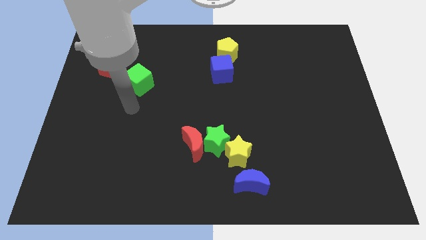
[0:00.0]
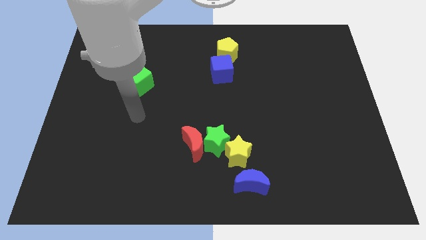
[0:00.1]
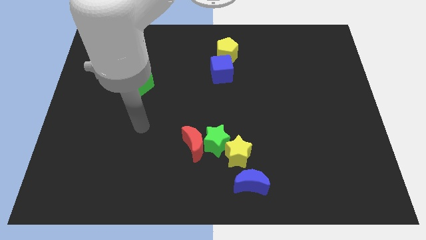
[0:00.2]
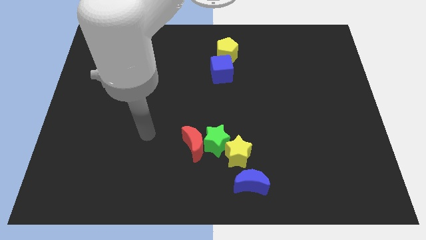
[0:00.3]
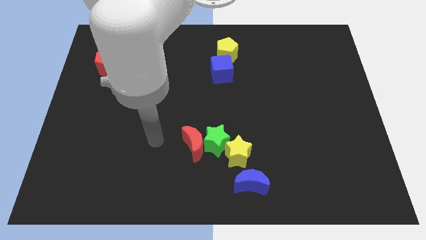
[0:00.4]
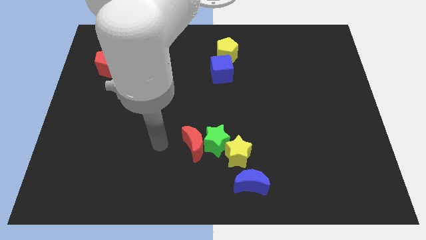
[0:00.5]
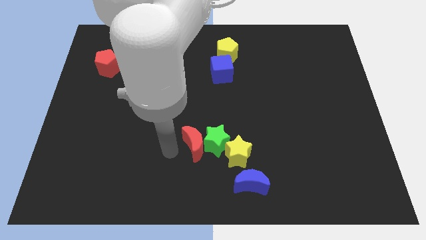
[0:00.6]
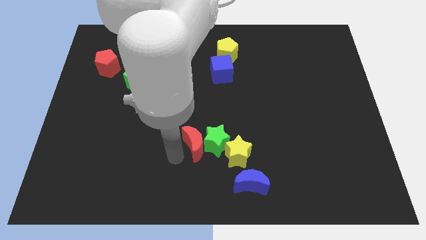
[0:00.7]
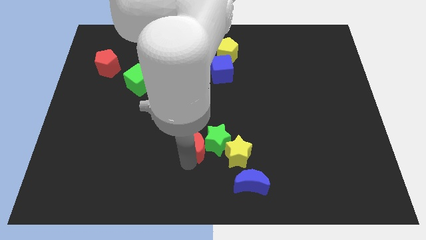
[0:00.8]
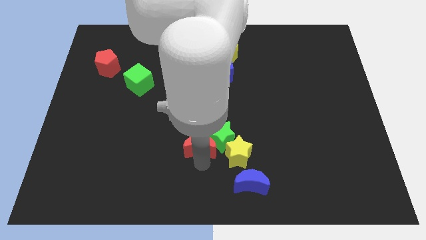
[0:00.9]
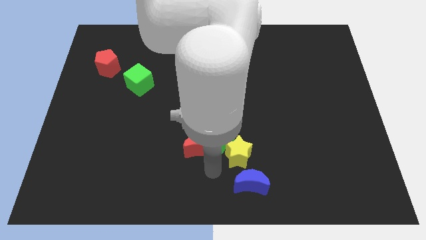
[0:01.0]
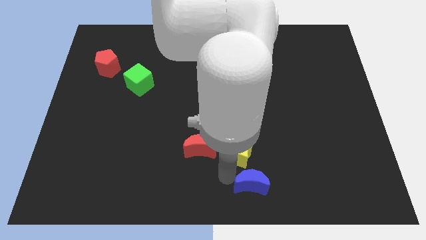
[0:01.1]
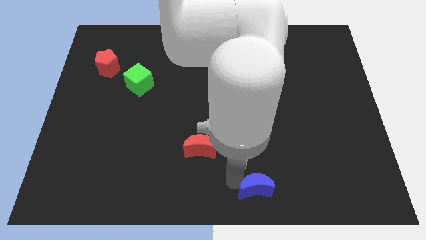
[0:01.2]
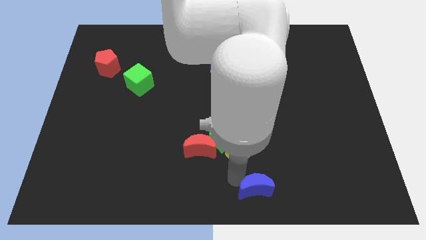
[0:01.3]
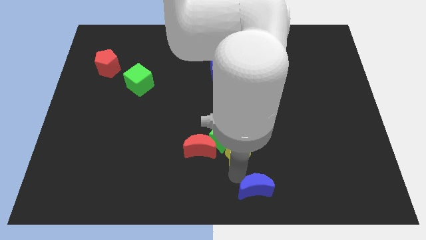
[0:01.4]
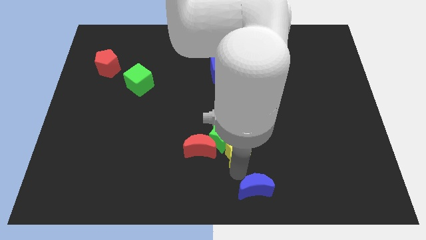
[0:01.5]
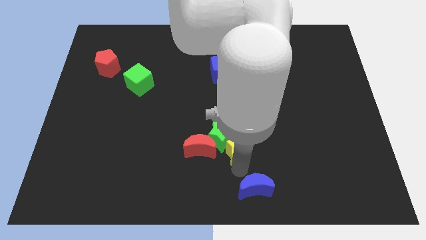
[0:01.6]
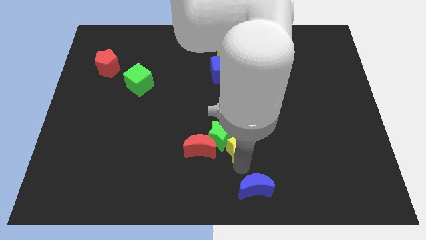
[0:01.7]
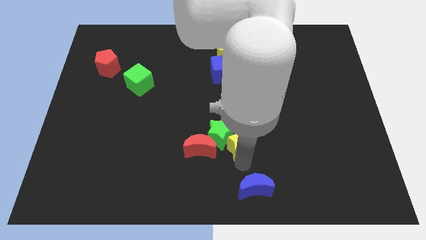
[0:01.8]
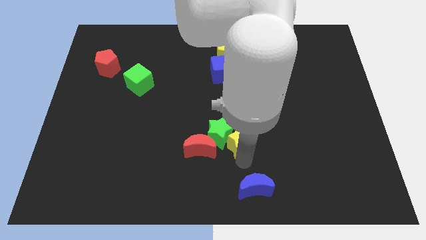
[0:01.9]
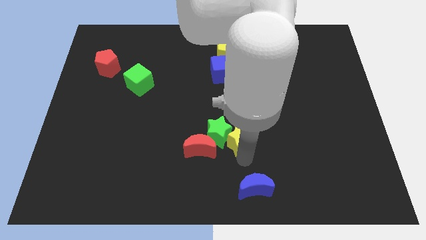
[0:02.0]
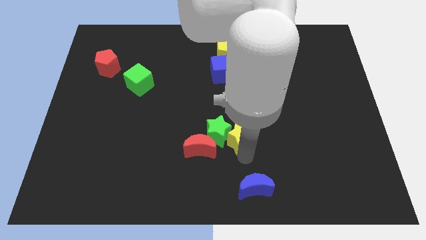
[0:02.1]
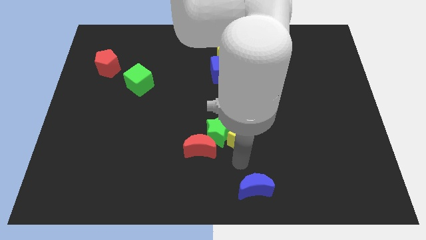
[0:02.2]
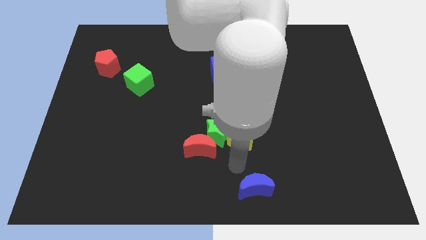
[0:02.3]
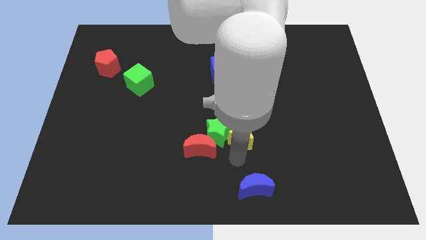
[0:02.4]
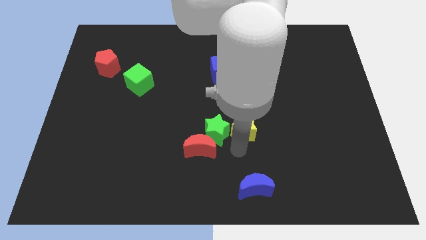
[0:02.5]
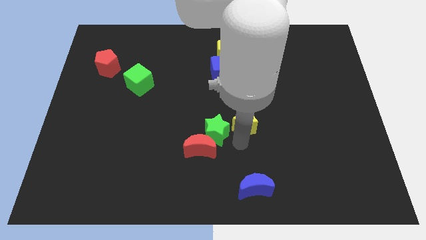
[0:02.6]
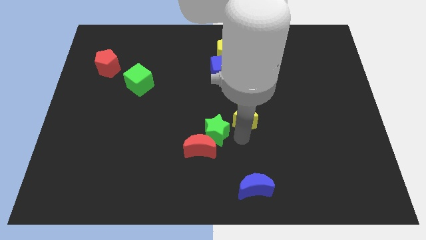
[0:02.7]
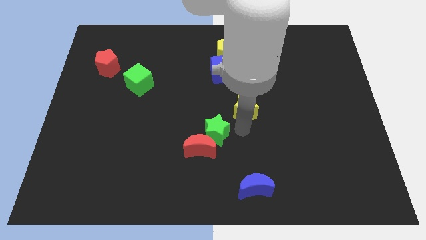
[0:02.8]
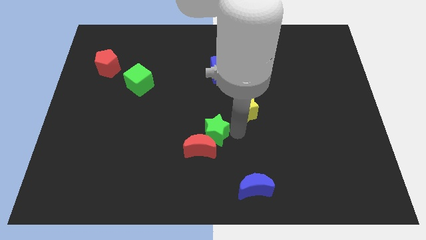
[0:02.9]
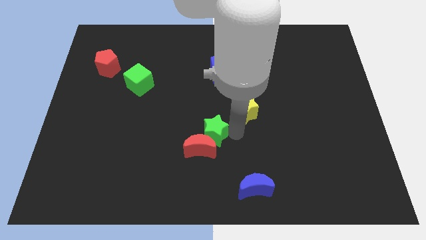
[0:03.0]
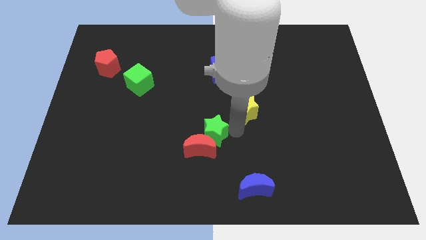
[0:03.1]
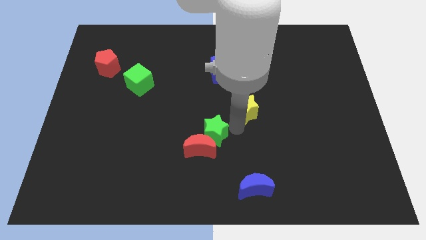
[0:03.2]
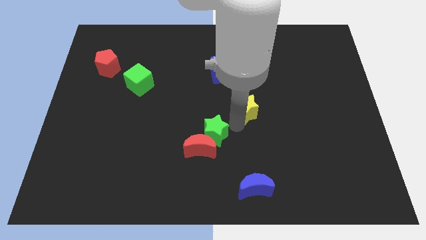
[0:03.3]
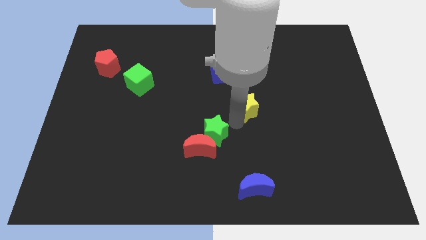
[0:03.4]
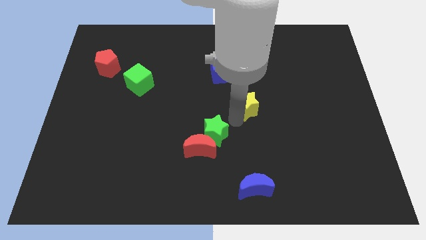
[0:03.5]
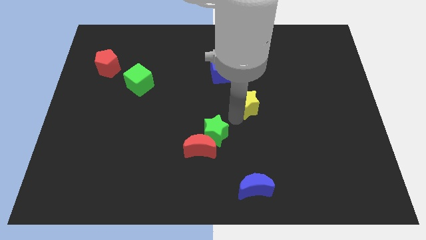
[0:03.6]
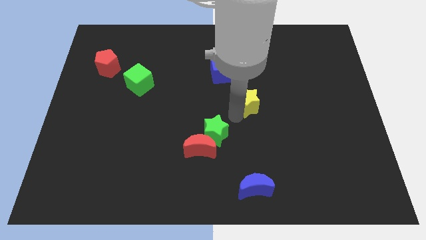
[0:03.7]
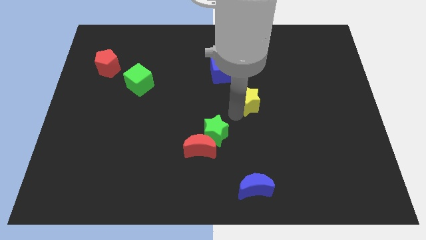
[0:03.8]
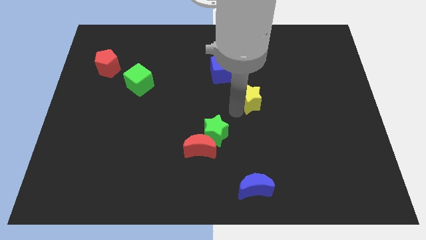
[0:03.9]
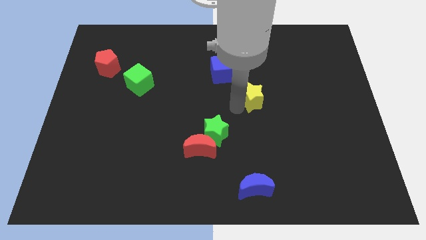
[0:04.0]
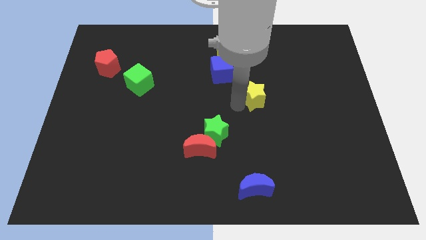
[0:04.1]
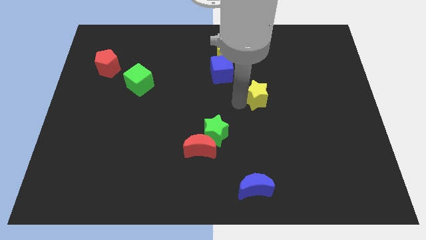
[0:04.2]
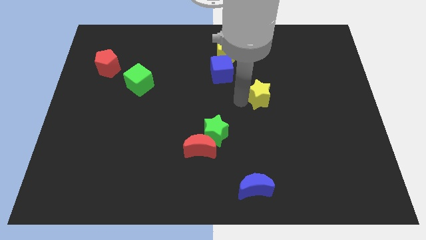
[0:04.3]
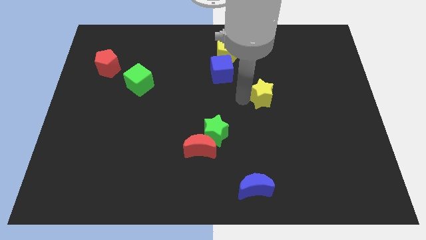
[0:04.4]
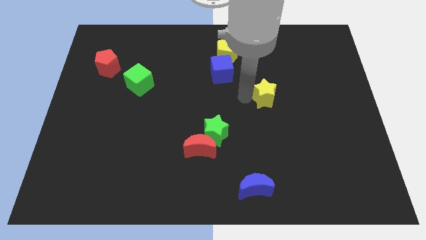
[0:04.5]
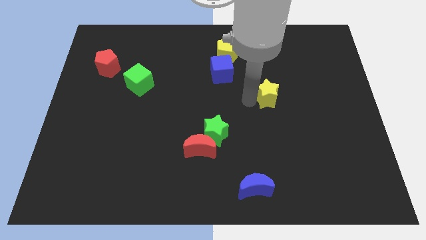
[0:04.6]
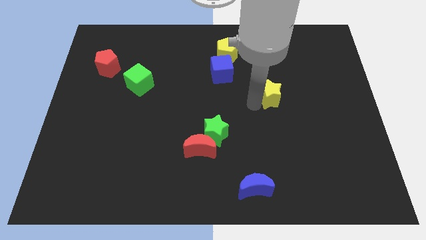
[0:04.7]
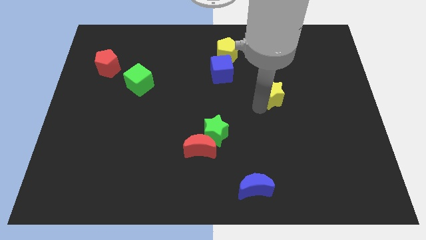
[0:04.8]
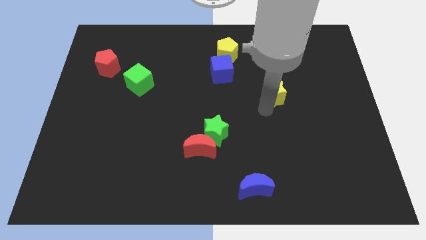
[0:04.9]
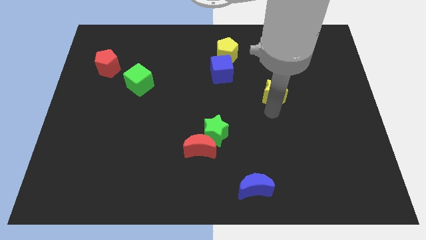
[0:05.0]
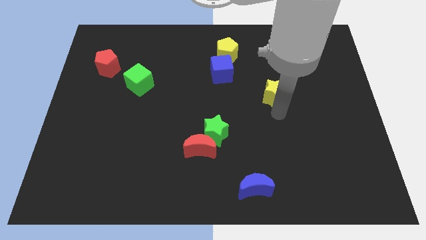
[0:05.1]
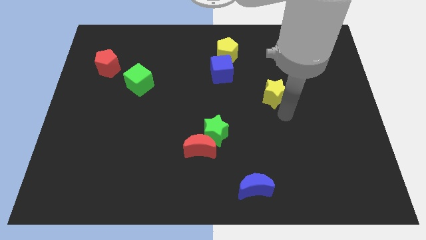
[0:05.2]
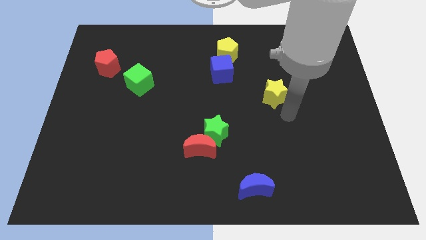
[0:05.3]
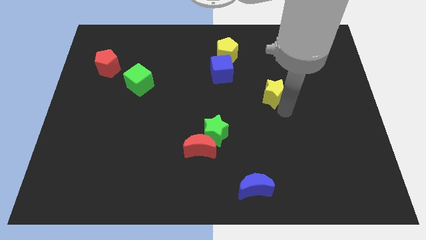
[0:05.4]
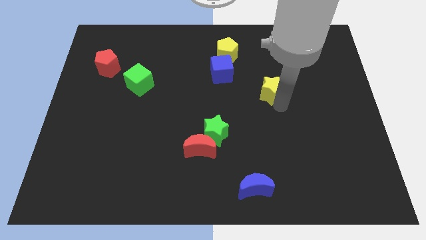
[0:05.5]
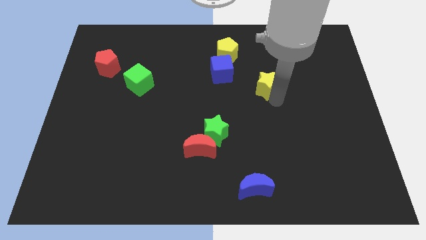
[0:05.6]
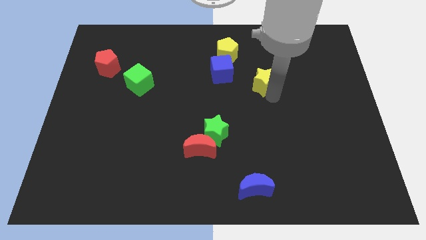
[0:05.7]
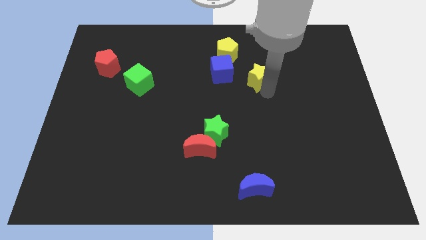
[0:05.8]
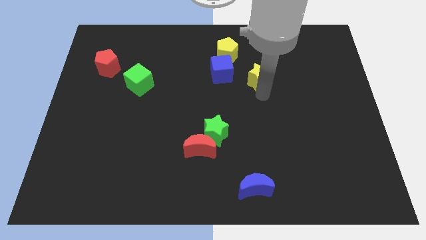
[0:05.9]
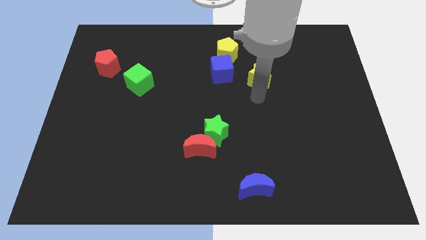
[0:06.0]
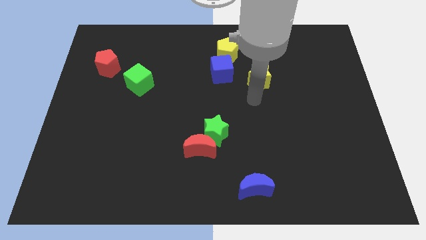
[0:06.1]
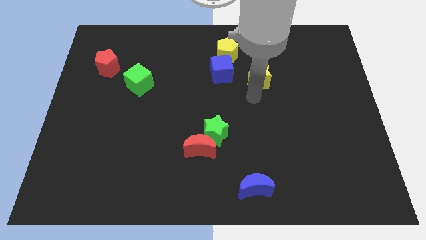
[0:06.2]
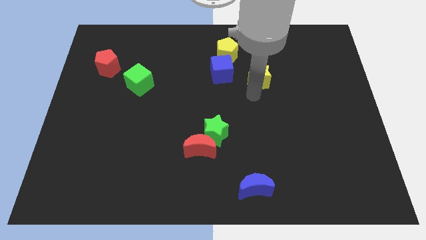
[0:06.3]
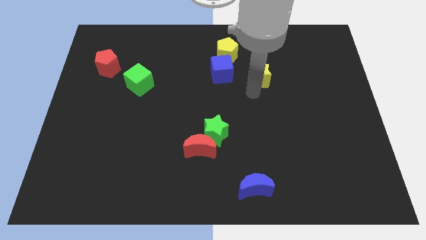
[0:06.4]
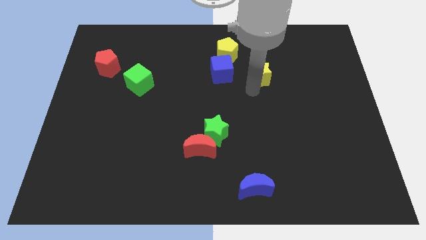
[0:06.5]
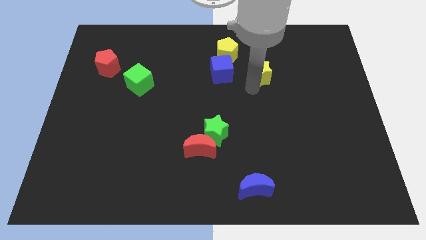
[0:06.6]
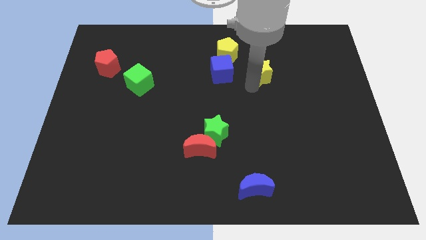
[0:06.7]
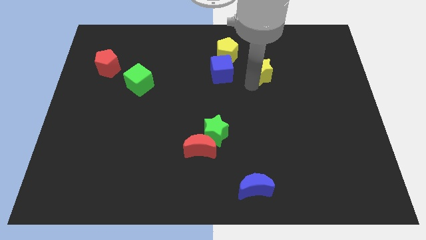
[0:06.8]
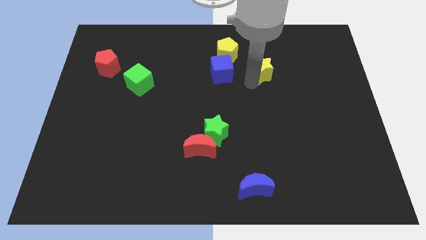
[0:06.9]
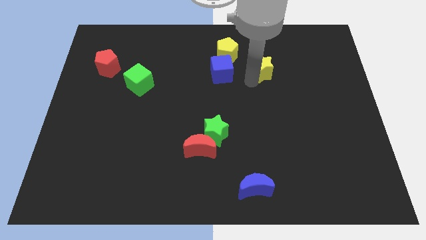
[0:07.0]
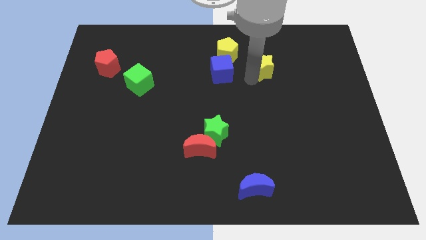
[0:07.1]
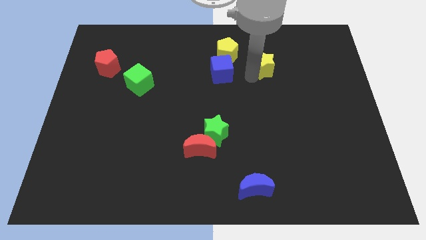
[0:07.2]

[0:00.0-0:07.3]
put the yellow star to the right side of the yellow pentagon
